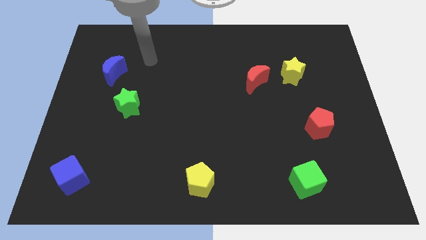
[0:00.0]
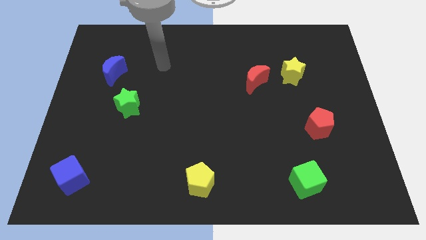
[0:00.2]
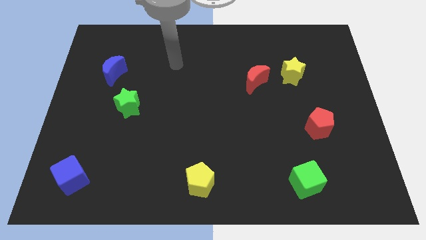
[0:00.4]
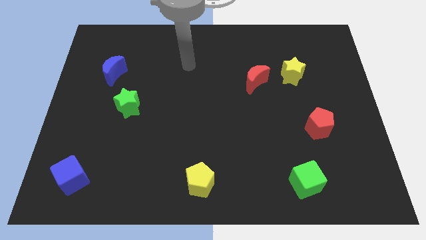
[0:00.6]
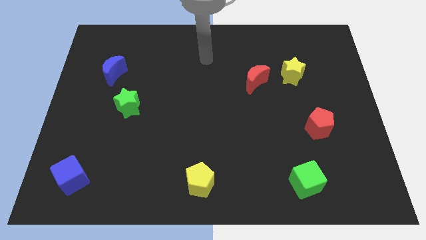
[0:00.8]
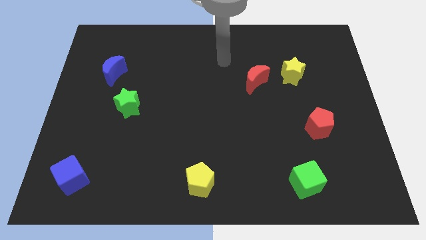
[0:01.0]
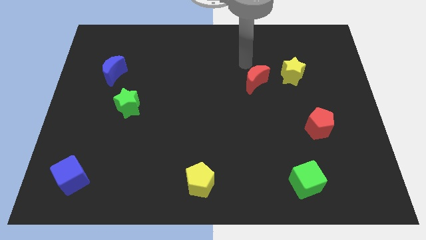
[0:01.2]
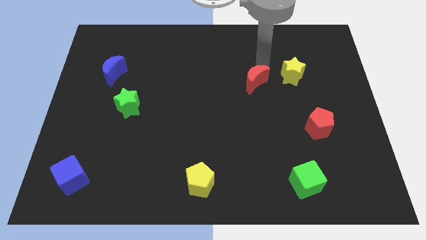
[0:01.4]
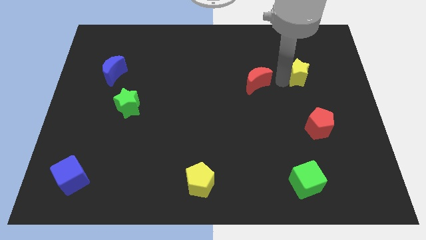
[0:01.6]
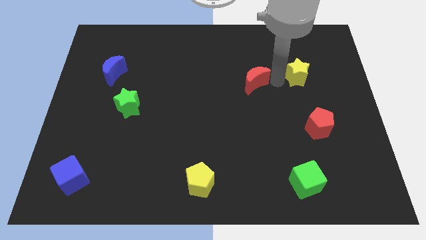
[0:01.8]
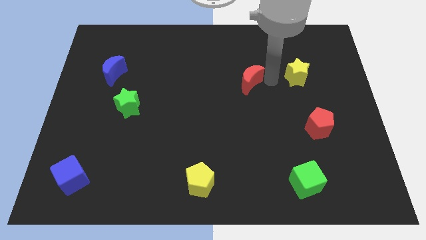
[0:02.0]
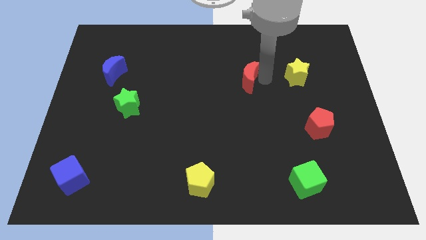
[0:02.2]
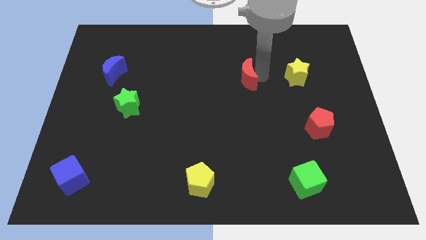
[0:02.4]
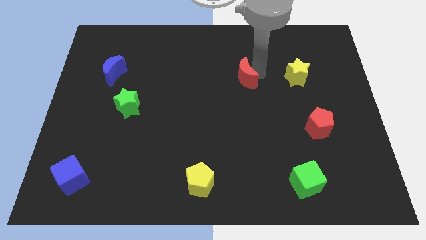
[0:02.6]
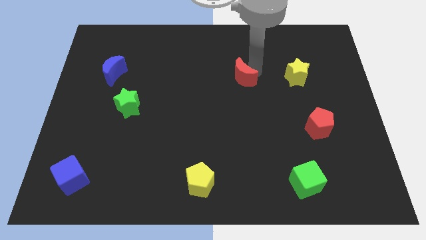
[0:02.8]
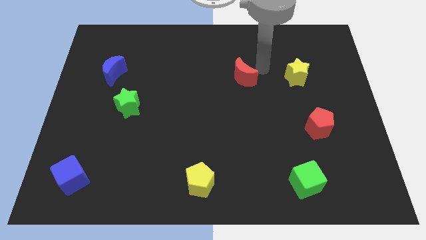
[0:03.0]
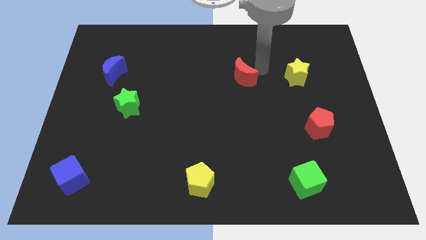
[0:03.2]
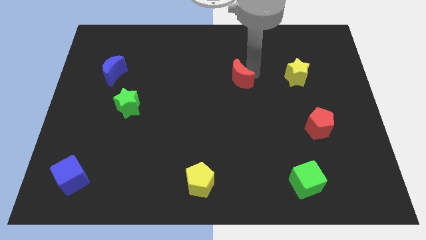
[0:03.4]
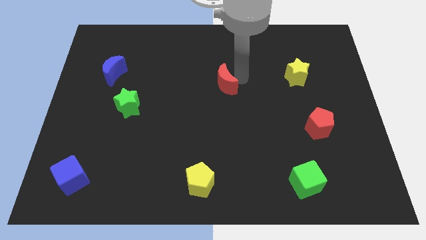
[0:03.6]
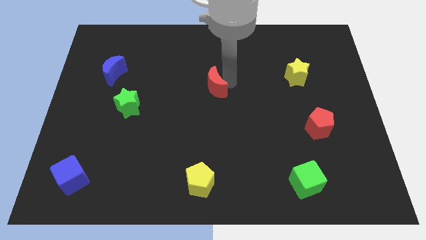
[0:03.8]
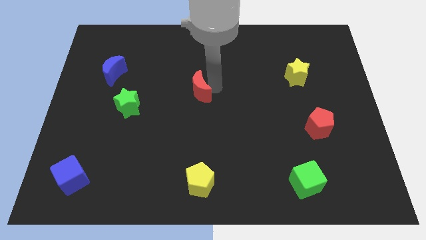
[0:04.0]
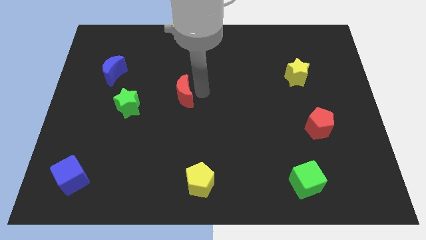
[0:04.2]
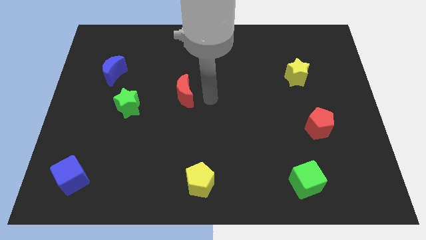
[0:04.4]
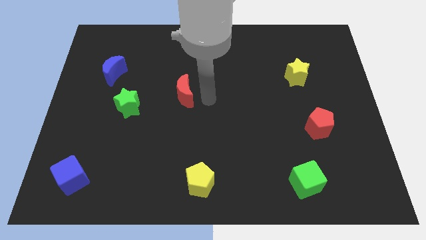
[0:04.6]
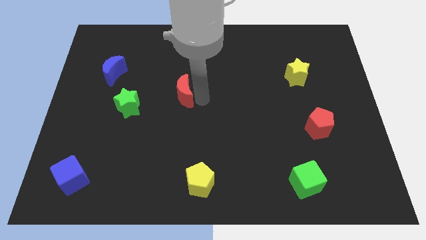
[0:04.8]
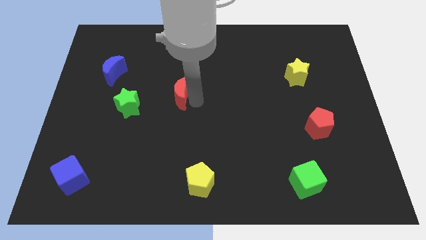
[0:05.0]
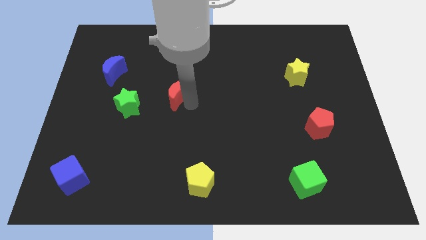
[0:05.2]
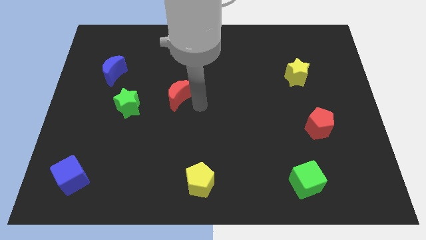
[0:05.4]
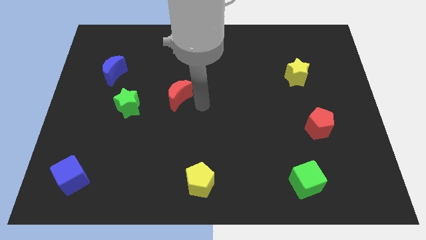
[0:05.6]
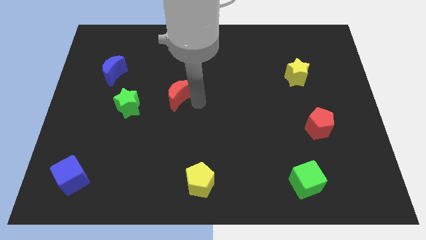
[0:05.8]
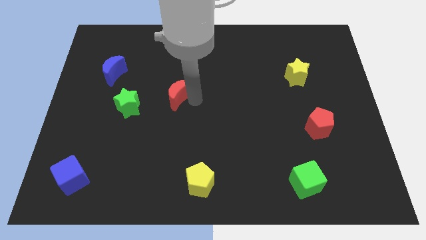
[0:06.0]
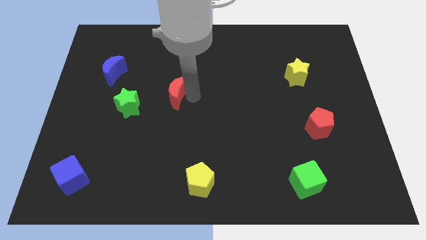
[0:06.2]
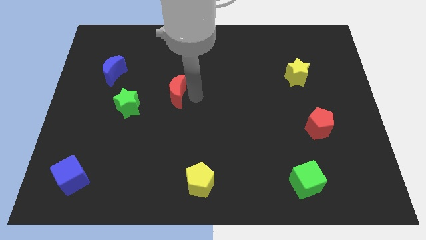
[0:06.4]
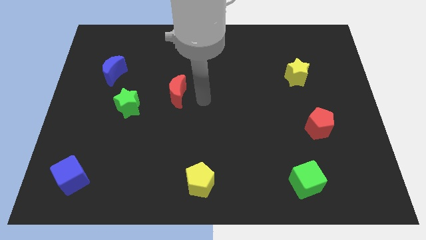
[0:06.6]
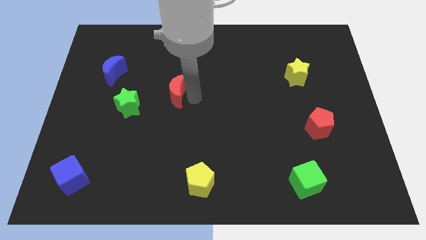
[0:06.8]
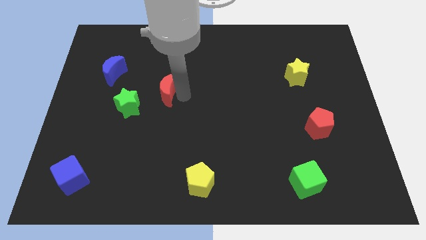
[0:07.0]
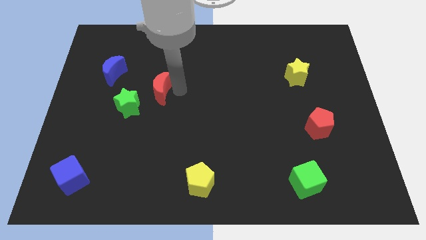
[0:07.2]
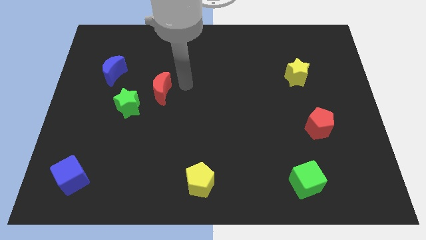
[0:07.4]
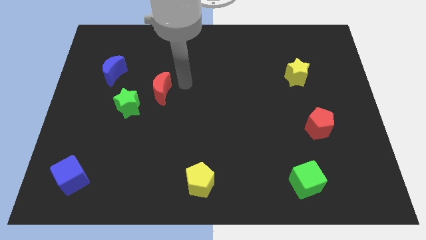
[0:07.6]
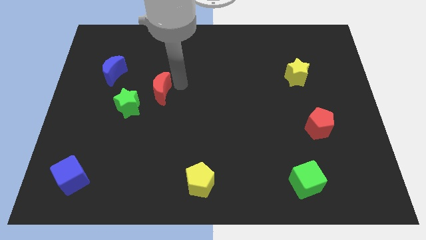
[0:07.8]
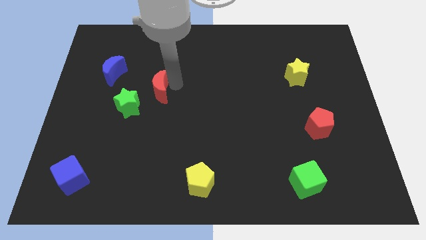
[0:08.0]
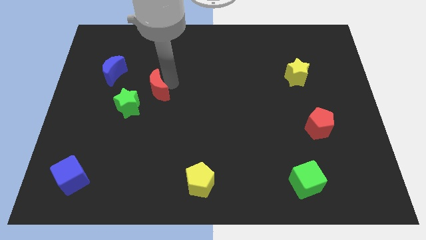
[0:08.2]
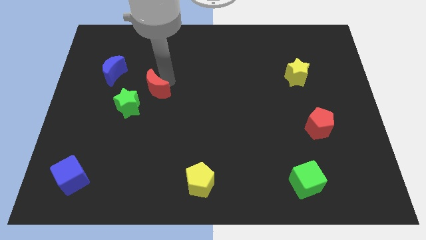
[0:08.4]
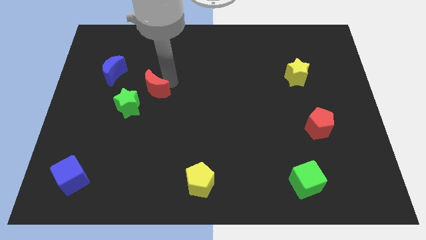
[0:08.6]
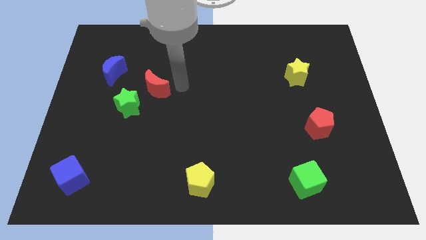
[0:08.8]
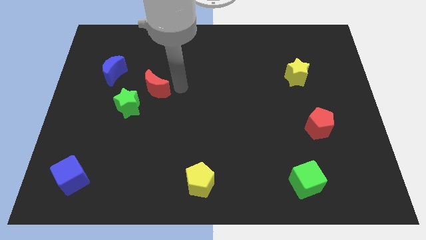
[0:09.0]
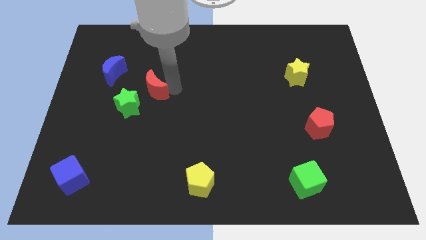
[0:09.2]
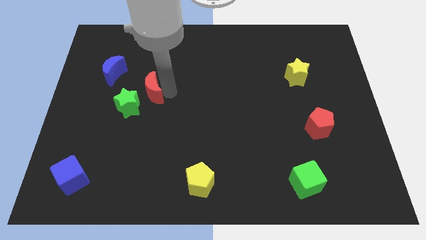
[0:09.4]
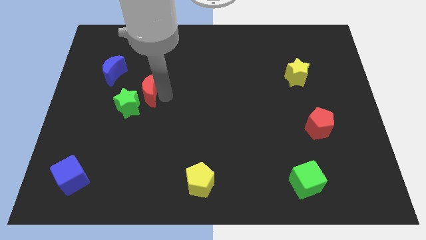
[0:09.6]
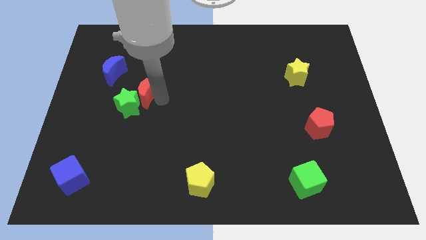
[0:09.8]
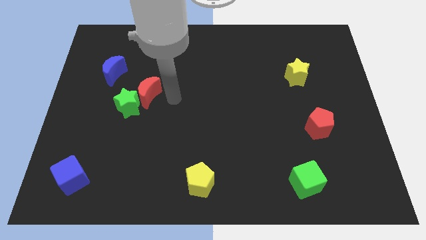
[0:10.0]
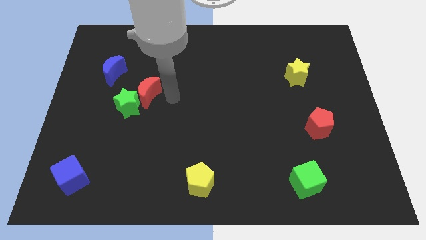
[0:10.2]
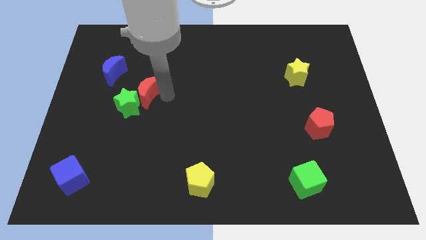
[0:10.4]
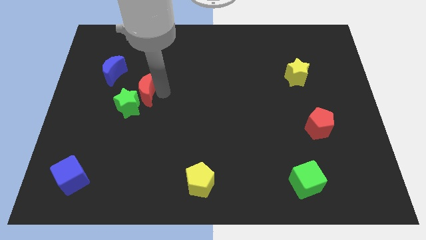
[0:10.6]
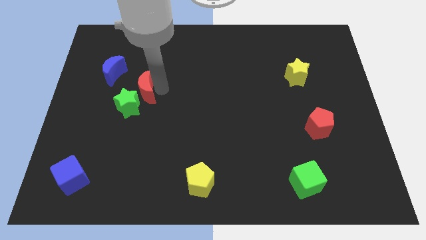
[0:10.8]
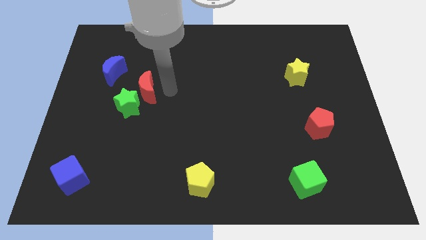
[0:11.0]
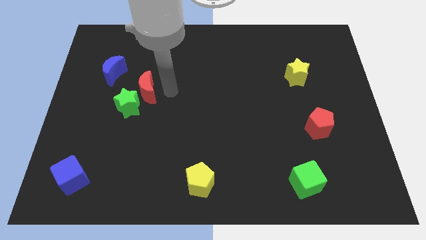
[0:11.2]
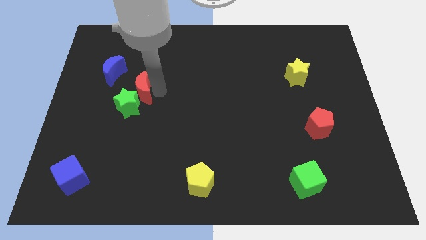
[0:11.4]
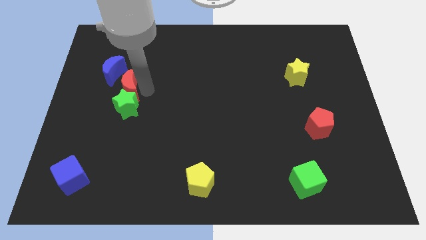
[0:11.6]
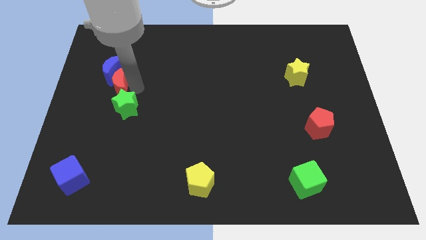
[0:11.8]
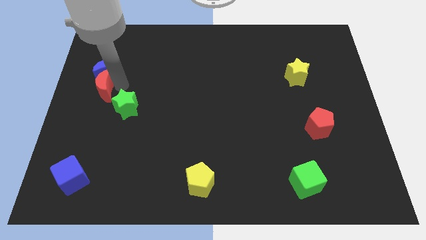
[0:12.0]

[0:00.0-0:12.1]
push the red moon to the left side of the board
